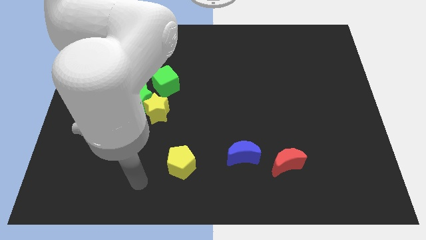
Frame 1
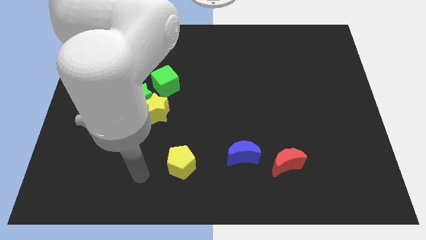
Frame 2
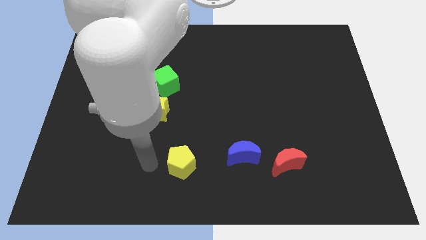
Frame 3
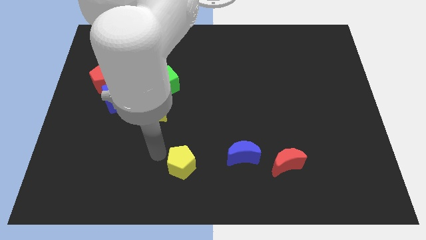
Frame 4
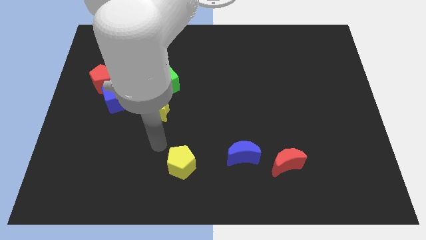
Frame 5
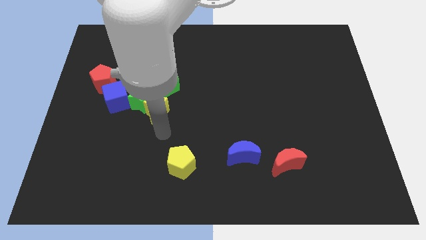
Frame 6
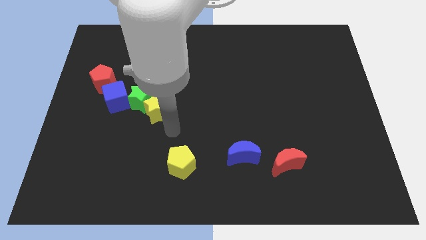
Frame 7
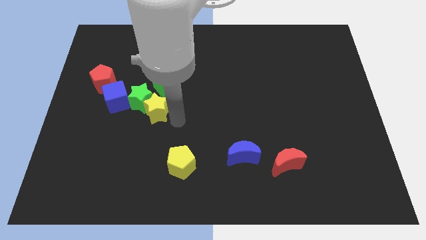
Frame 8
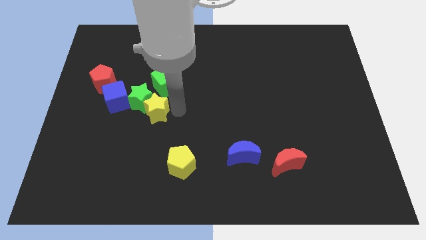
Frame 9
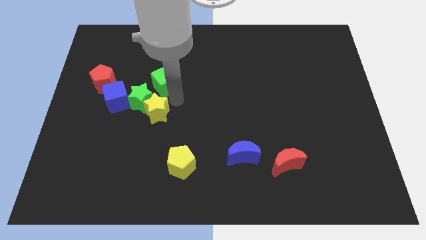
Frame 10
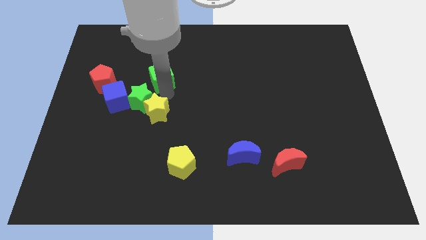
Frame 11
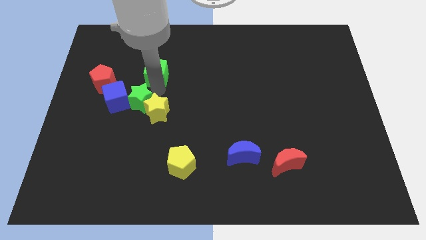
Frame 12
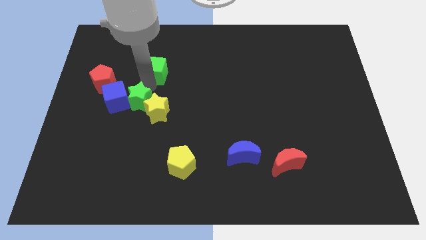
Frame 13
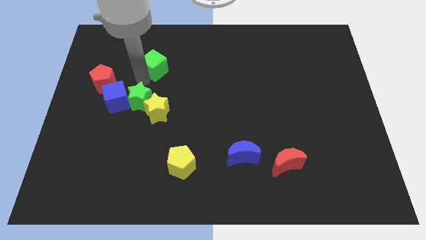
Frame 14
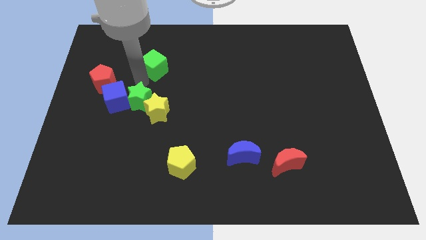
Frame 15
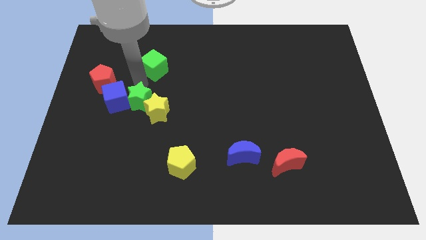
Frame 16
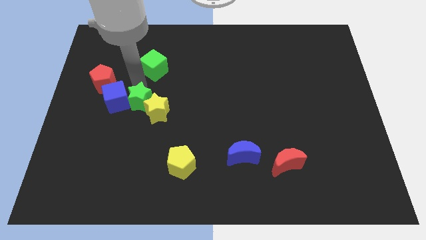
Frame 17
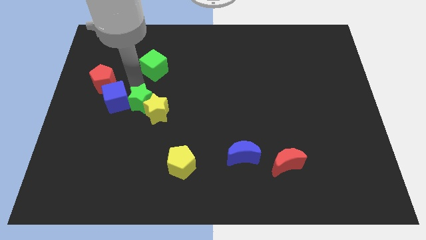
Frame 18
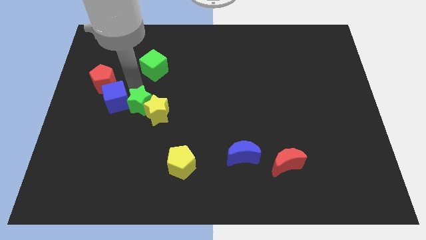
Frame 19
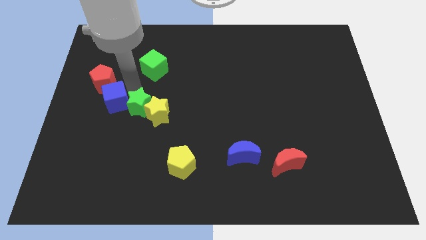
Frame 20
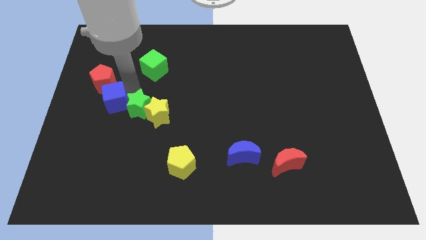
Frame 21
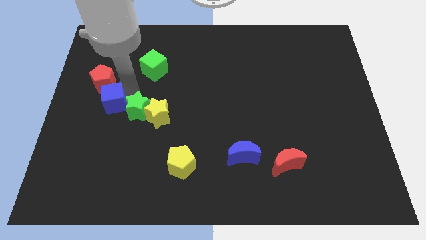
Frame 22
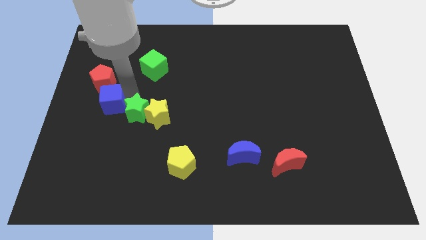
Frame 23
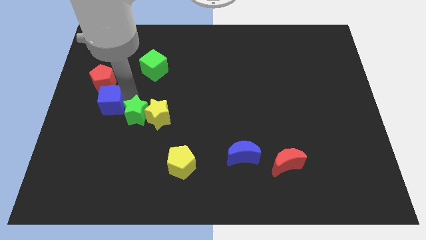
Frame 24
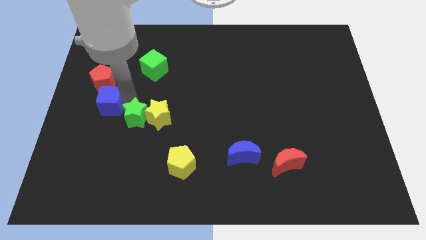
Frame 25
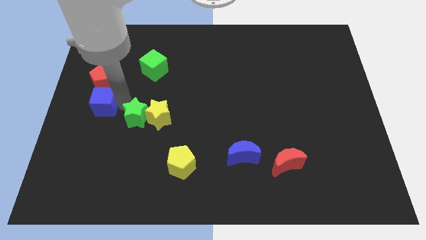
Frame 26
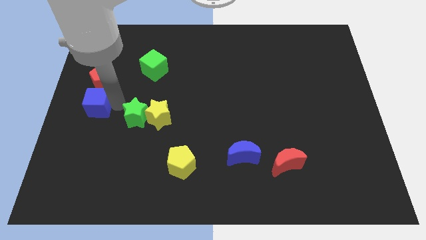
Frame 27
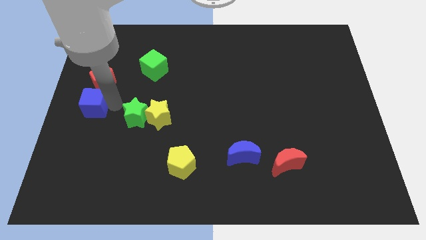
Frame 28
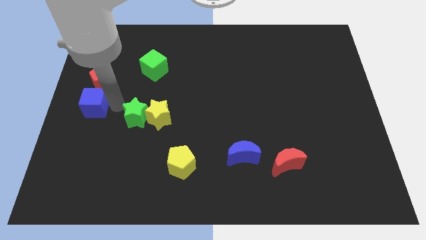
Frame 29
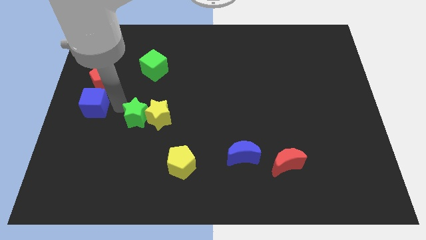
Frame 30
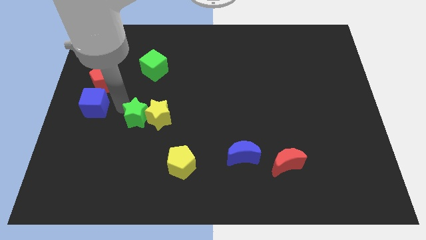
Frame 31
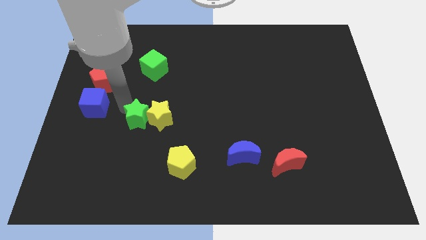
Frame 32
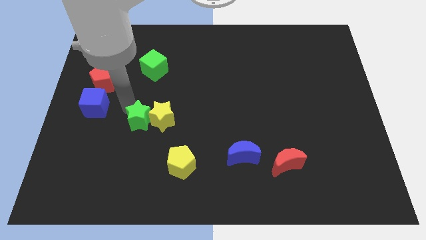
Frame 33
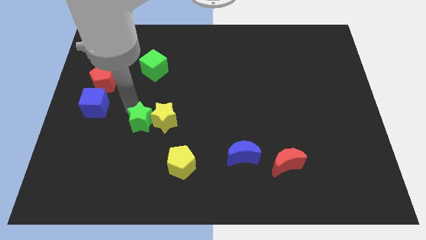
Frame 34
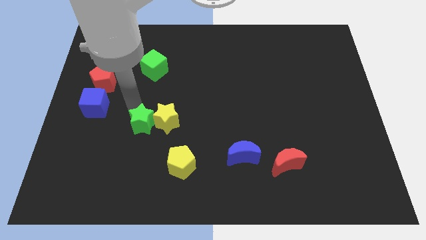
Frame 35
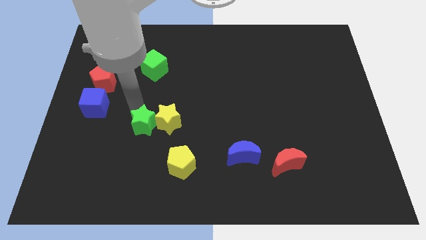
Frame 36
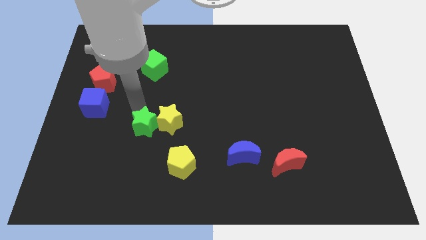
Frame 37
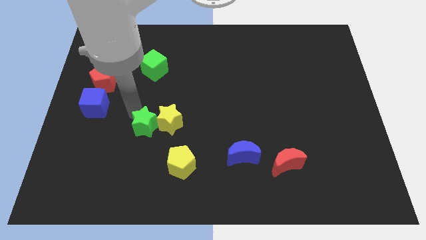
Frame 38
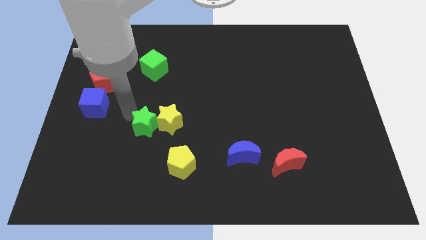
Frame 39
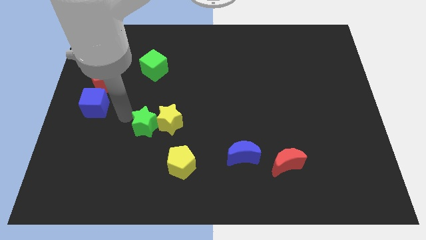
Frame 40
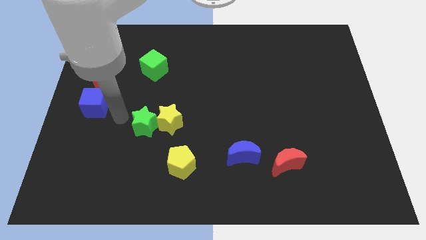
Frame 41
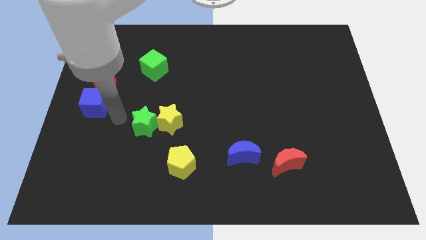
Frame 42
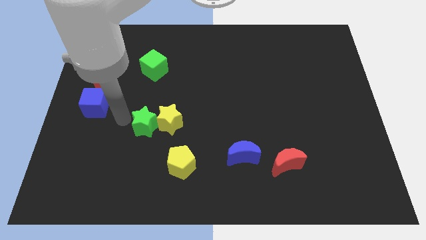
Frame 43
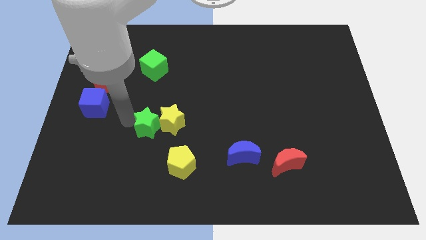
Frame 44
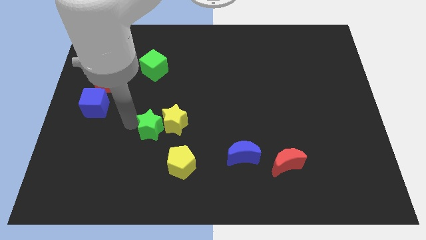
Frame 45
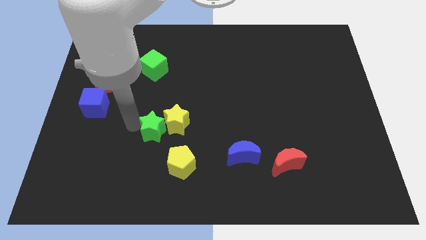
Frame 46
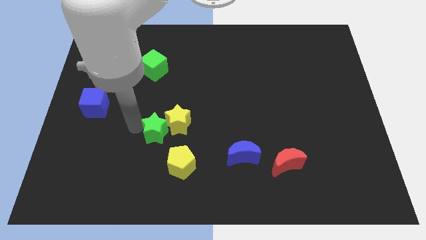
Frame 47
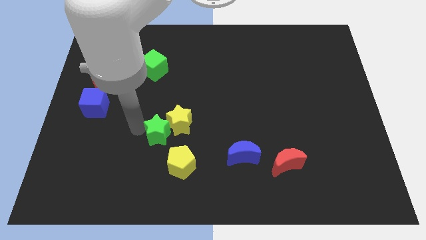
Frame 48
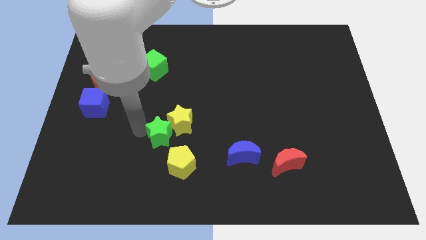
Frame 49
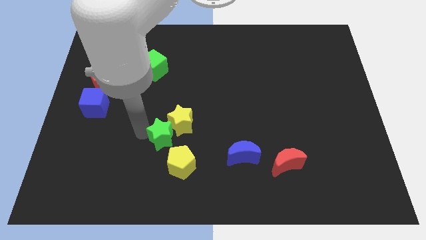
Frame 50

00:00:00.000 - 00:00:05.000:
push the green star to the top of the yellow pentagon

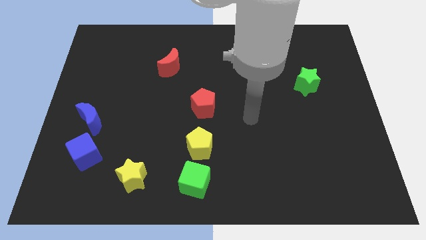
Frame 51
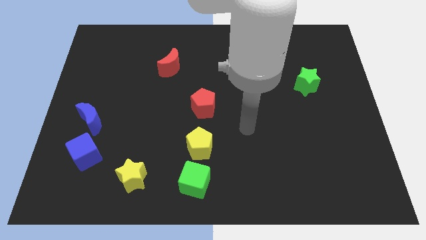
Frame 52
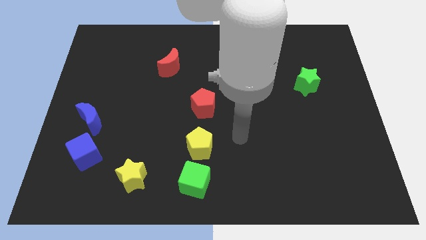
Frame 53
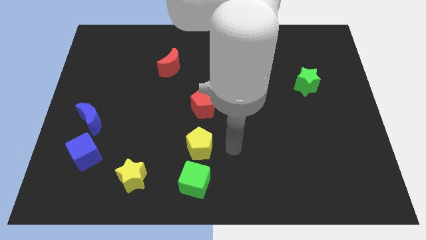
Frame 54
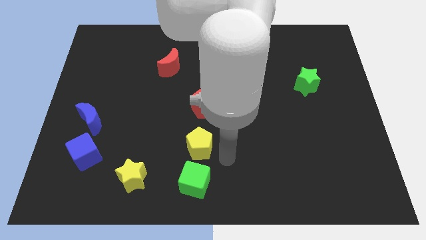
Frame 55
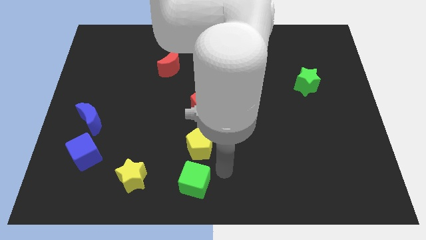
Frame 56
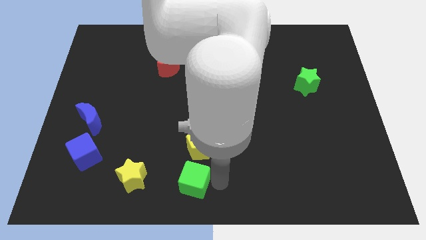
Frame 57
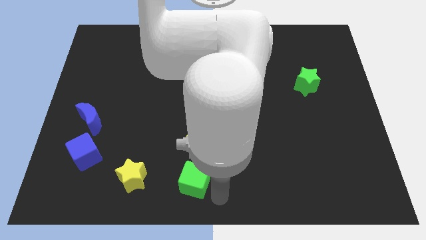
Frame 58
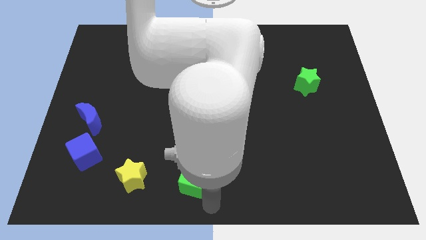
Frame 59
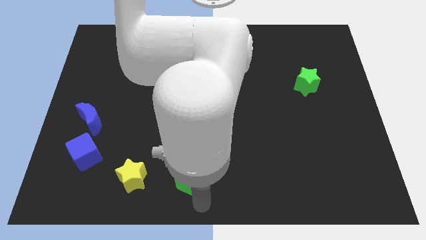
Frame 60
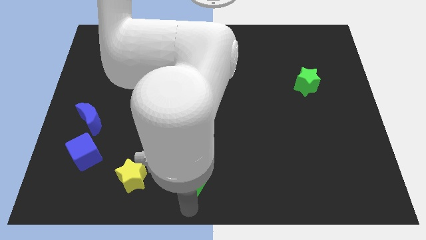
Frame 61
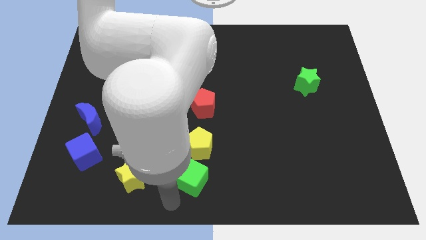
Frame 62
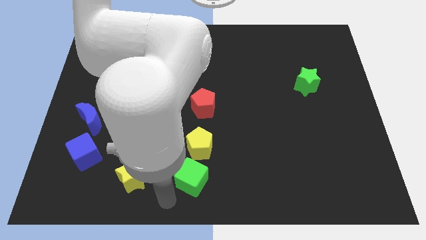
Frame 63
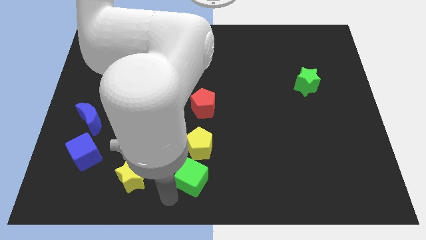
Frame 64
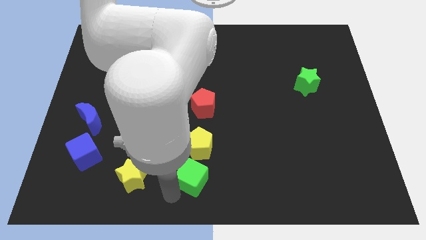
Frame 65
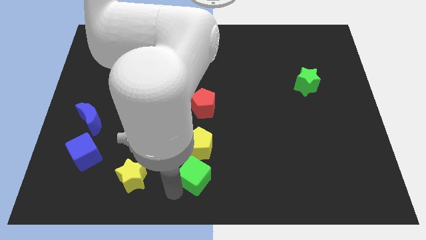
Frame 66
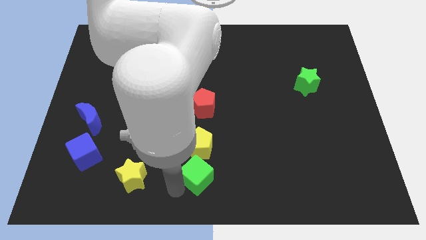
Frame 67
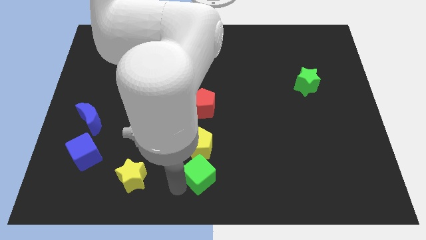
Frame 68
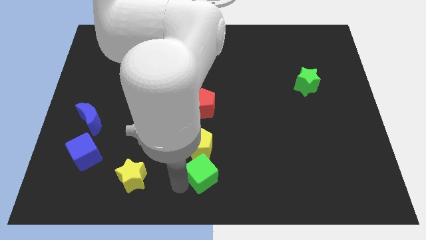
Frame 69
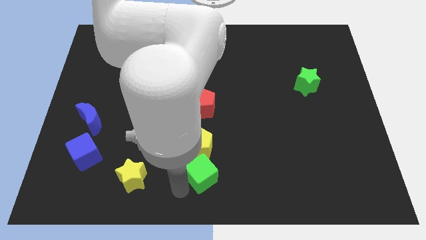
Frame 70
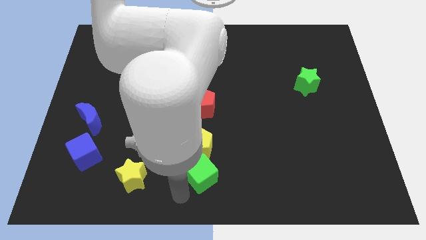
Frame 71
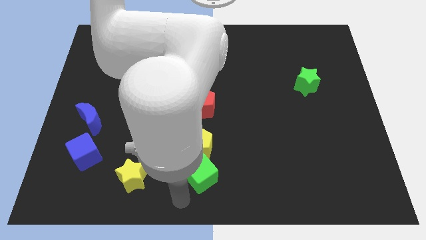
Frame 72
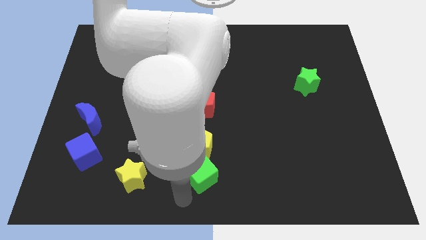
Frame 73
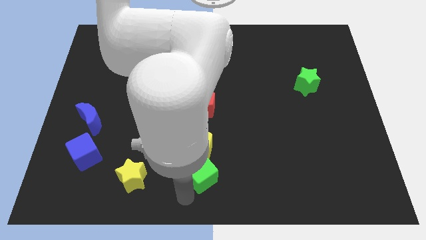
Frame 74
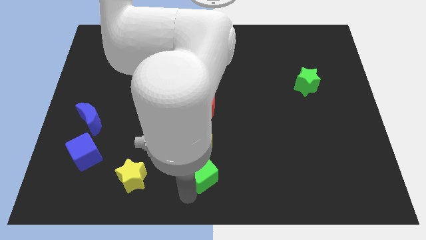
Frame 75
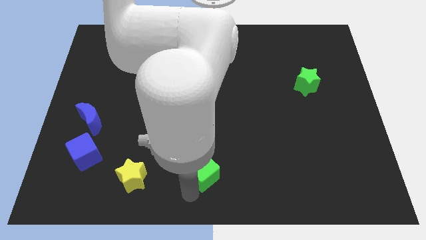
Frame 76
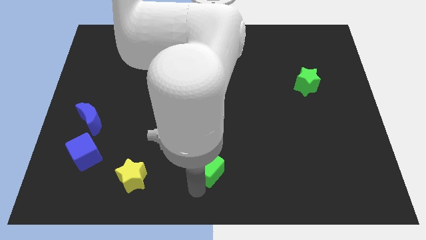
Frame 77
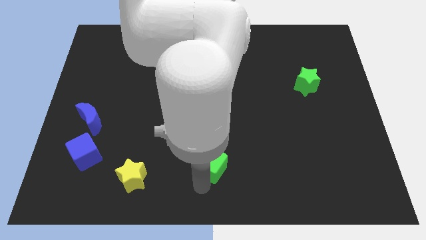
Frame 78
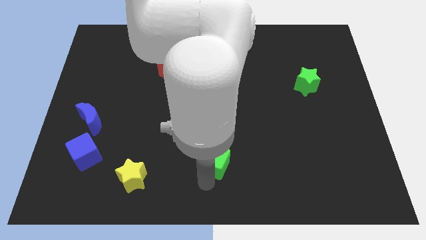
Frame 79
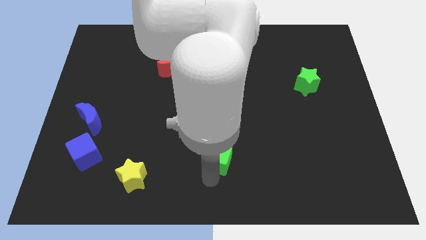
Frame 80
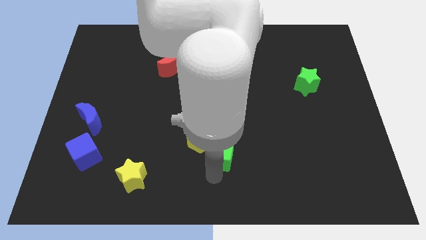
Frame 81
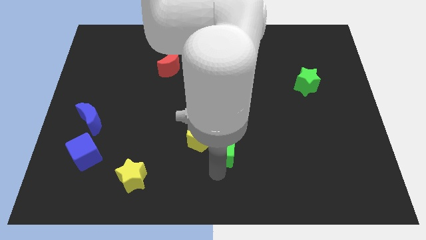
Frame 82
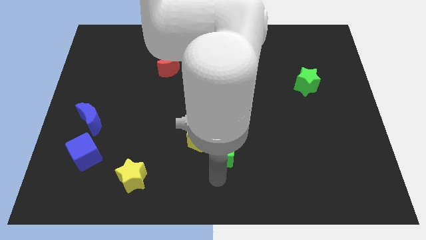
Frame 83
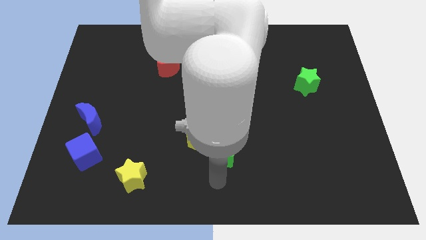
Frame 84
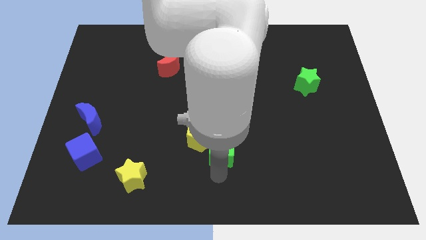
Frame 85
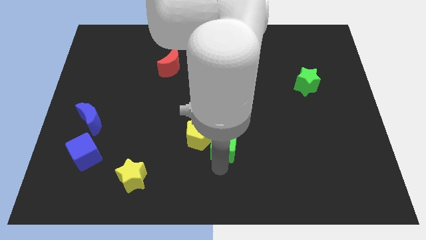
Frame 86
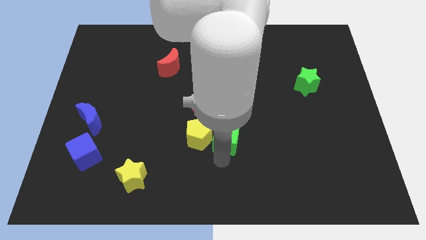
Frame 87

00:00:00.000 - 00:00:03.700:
slide the green cube to the bottom right side of the red pentagon

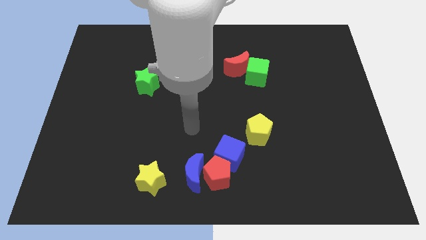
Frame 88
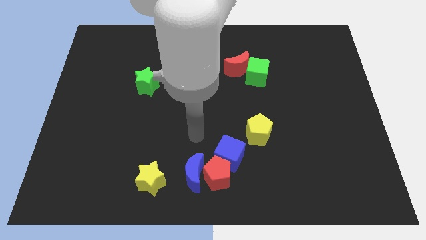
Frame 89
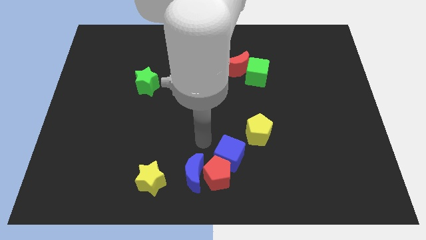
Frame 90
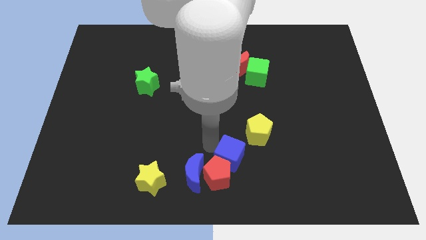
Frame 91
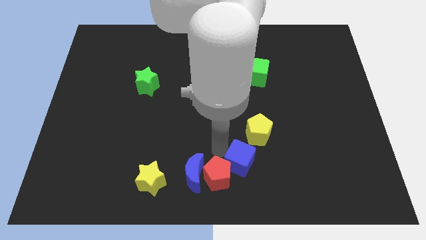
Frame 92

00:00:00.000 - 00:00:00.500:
put the blue cube just right of the red pentagon
